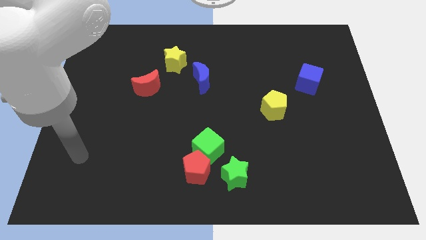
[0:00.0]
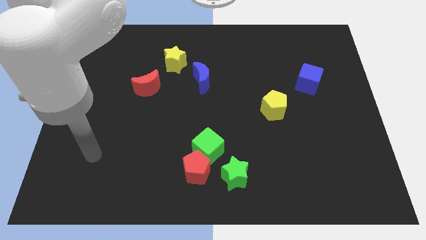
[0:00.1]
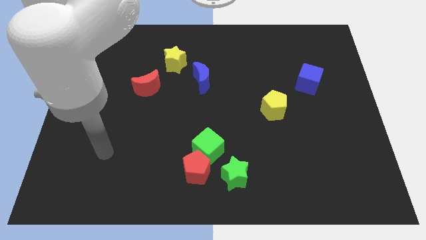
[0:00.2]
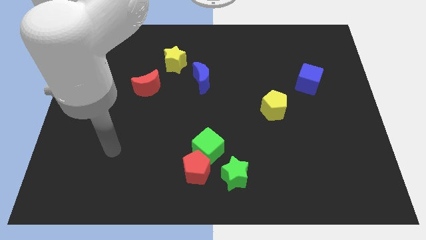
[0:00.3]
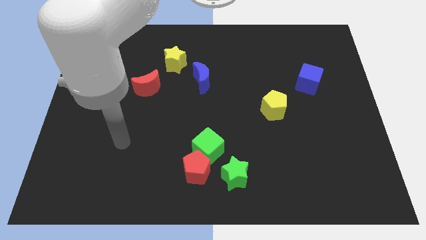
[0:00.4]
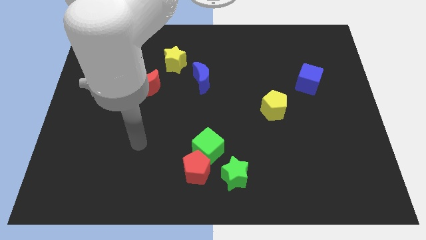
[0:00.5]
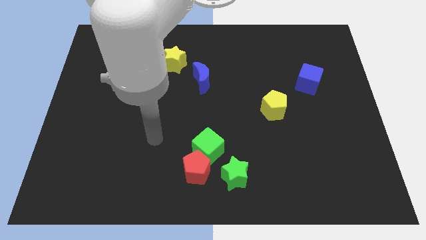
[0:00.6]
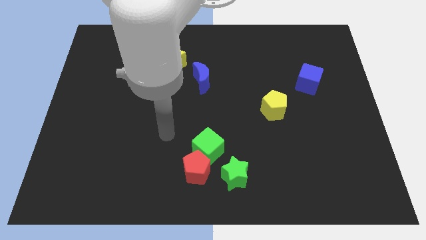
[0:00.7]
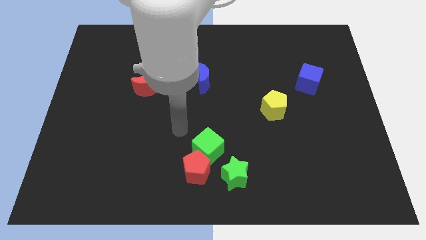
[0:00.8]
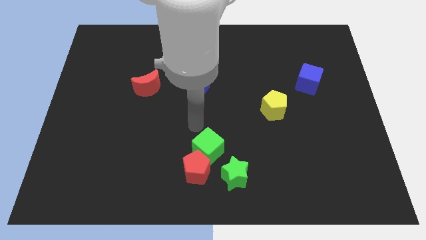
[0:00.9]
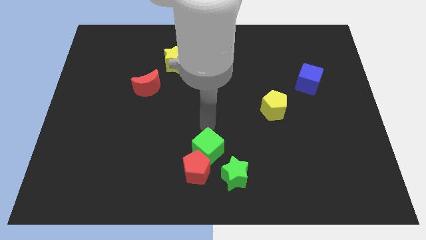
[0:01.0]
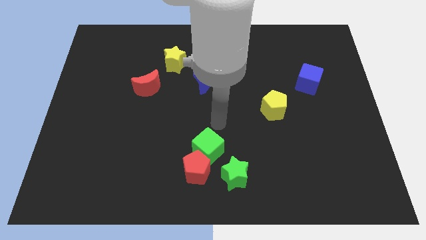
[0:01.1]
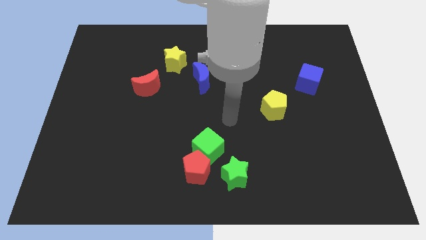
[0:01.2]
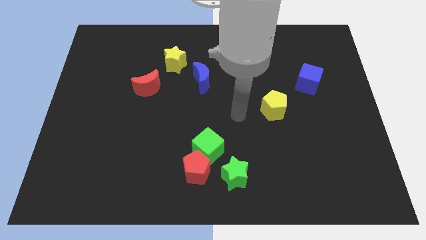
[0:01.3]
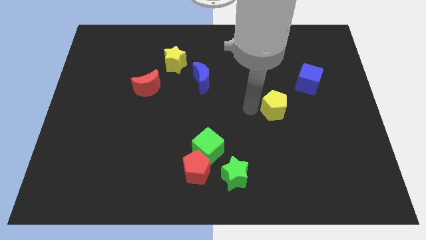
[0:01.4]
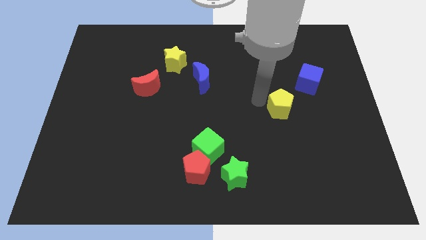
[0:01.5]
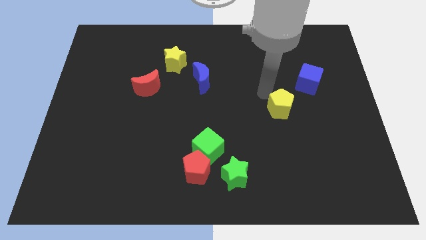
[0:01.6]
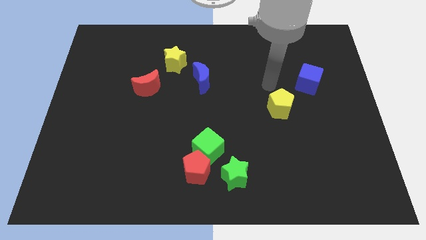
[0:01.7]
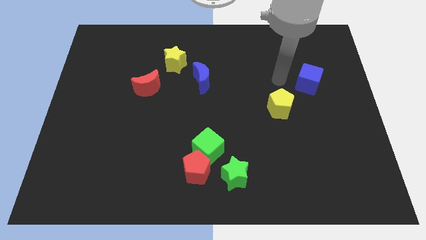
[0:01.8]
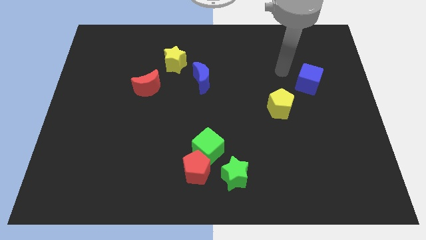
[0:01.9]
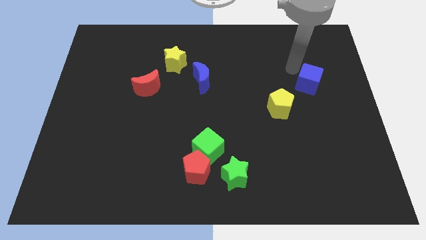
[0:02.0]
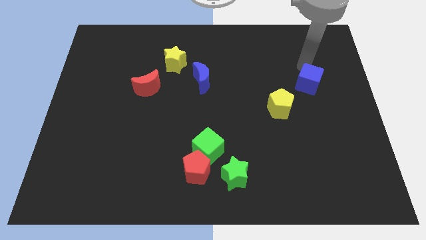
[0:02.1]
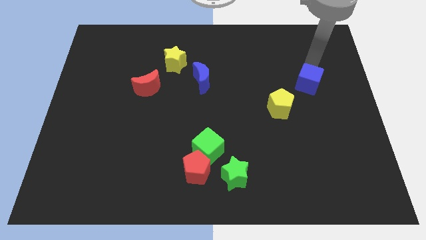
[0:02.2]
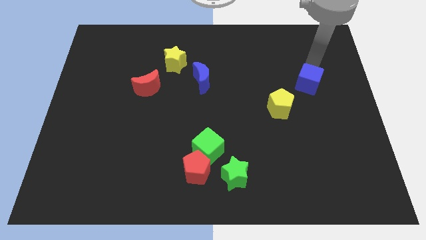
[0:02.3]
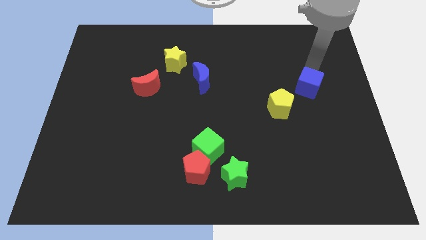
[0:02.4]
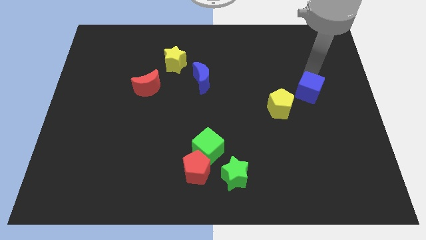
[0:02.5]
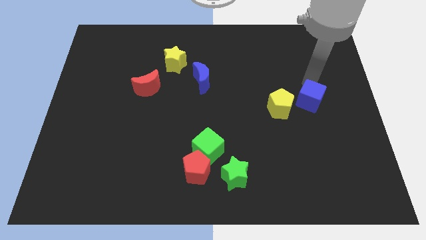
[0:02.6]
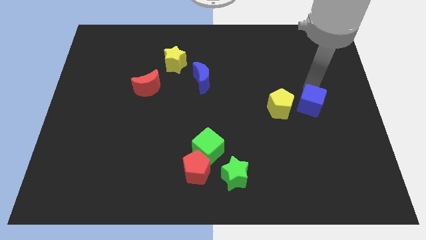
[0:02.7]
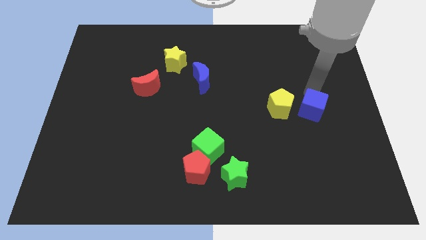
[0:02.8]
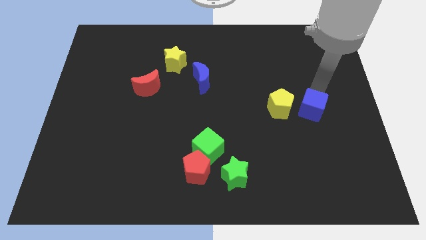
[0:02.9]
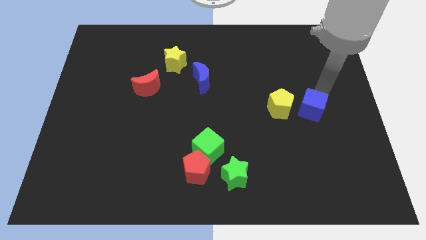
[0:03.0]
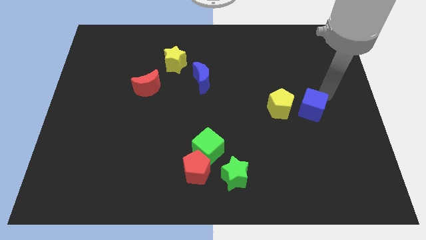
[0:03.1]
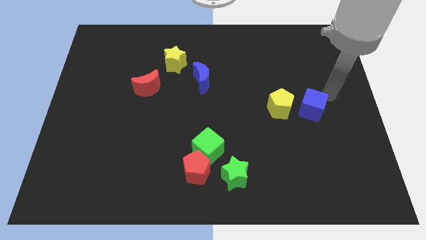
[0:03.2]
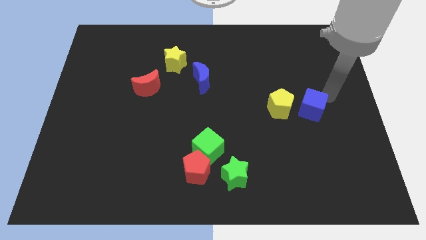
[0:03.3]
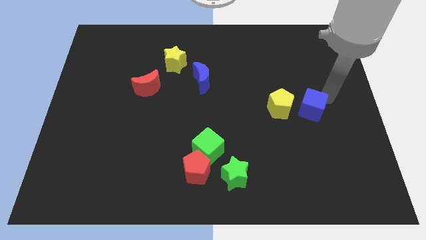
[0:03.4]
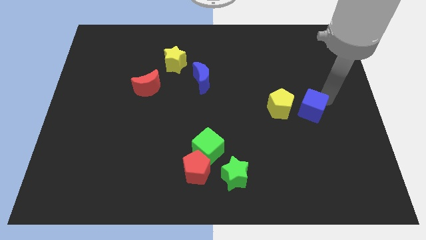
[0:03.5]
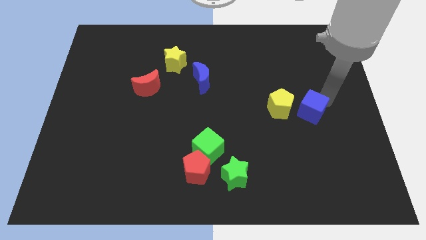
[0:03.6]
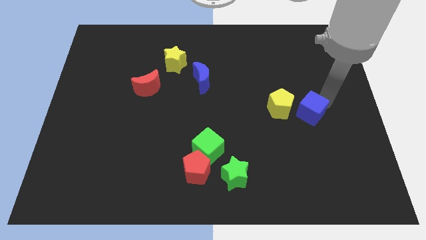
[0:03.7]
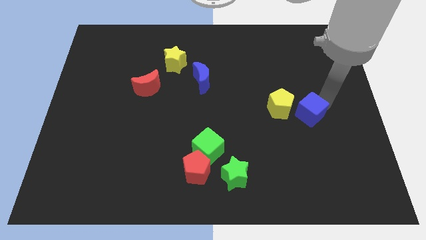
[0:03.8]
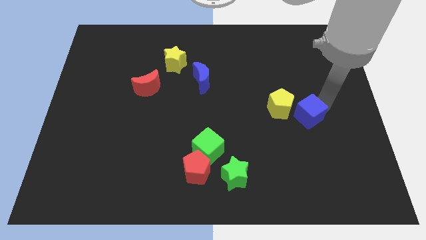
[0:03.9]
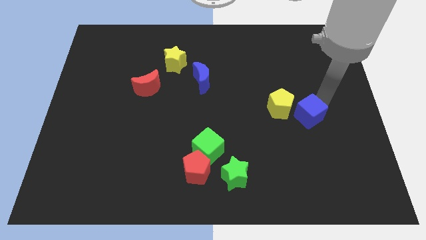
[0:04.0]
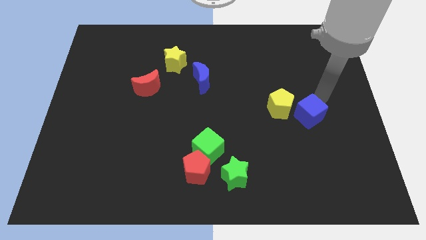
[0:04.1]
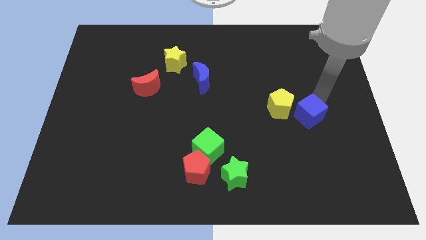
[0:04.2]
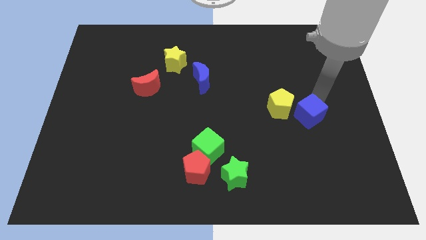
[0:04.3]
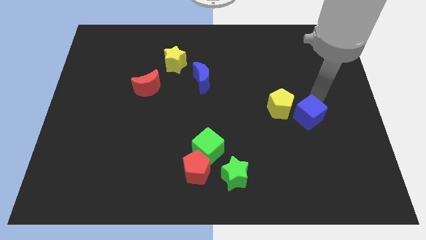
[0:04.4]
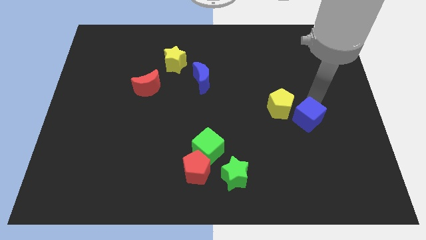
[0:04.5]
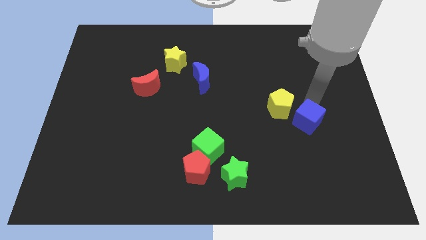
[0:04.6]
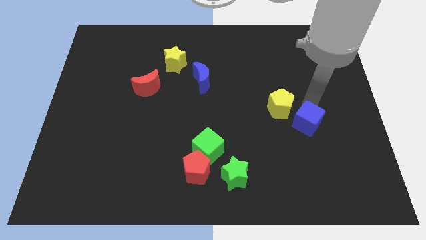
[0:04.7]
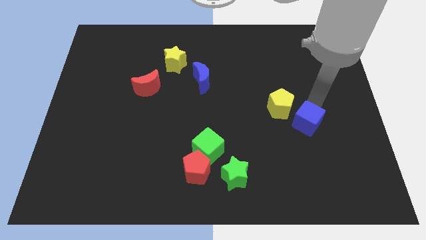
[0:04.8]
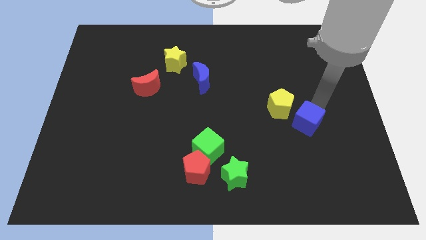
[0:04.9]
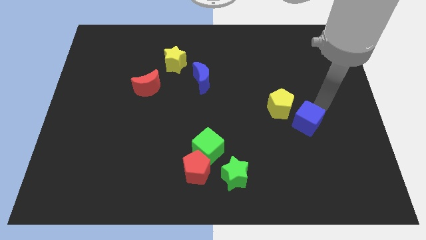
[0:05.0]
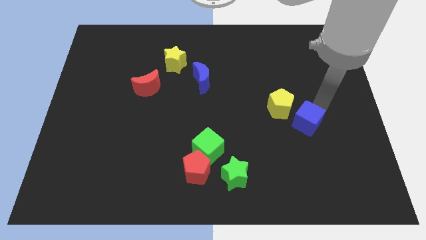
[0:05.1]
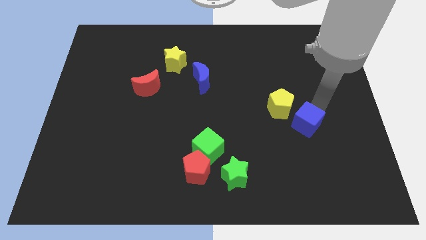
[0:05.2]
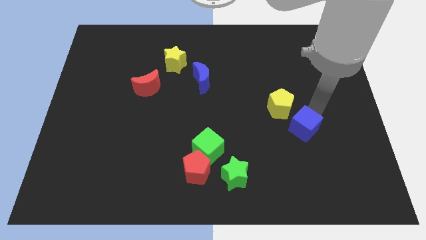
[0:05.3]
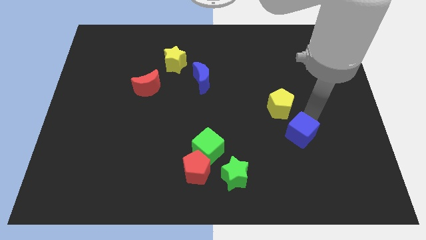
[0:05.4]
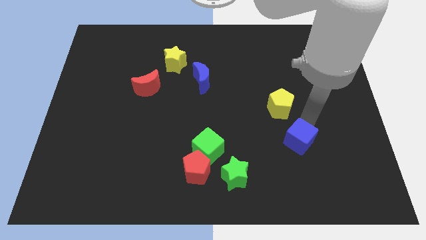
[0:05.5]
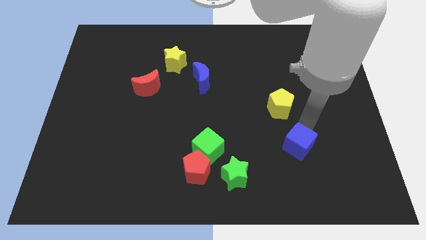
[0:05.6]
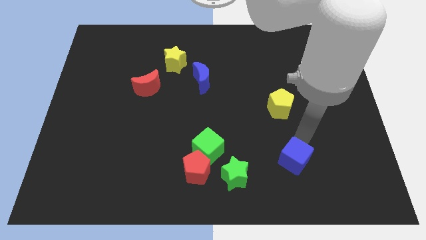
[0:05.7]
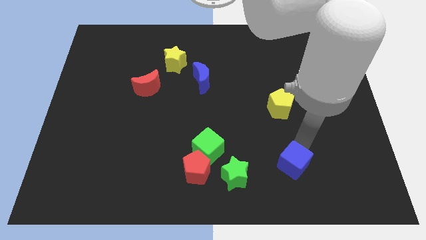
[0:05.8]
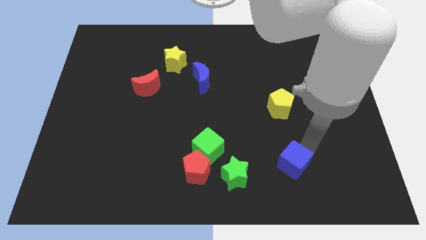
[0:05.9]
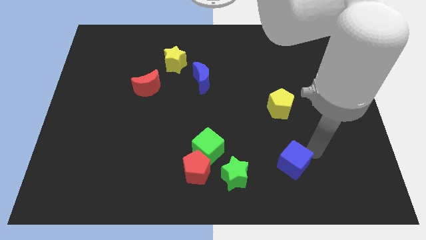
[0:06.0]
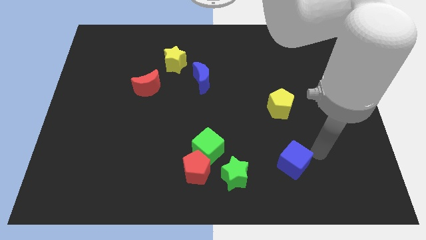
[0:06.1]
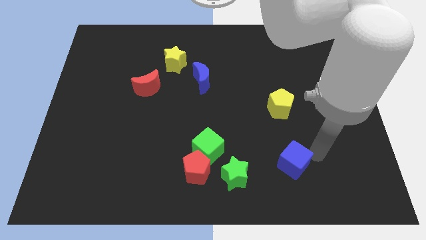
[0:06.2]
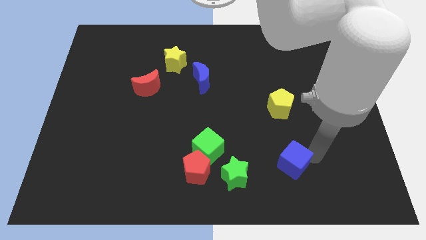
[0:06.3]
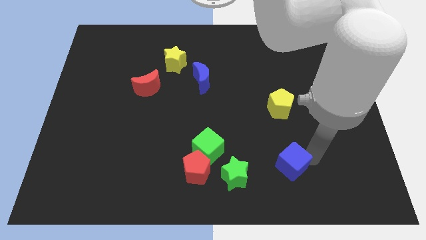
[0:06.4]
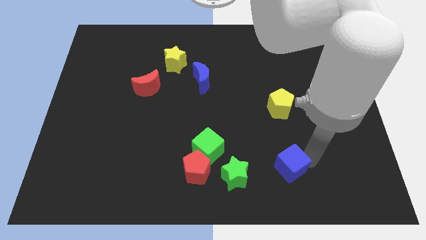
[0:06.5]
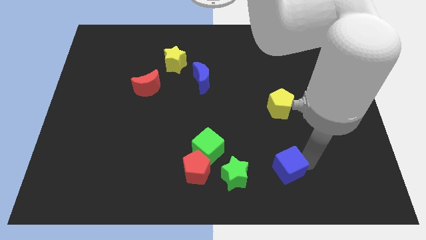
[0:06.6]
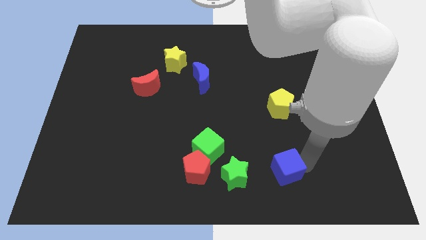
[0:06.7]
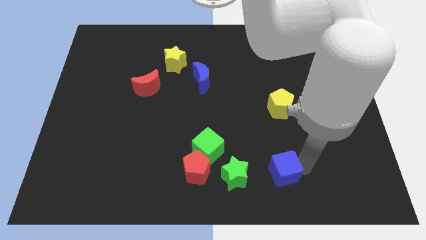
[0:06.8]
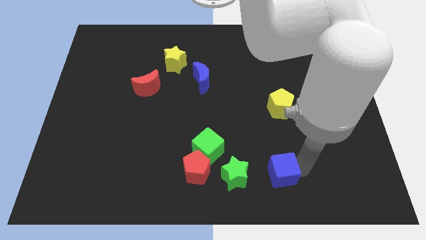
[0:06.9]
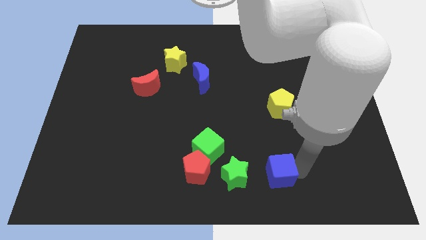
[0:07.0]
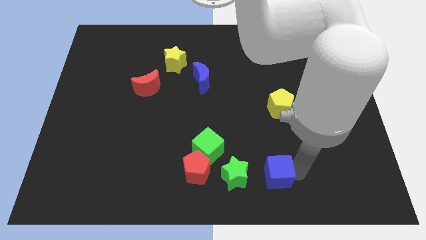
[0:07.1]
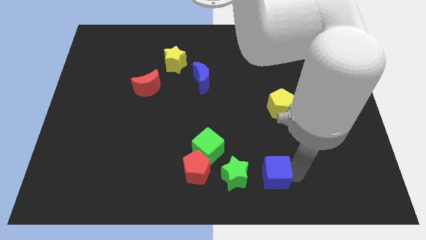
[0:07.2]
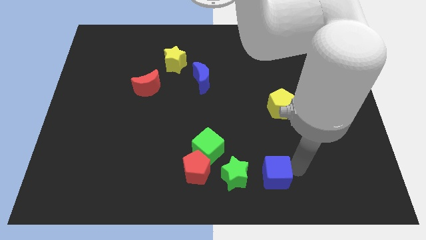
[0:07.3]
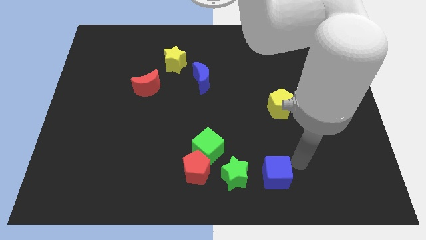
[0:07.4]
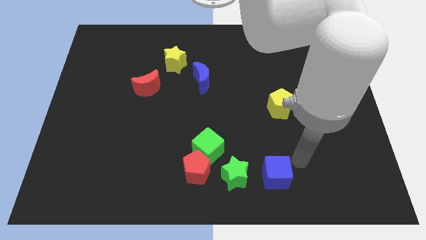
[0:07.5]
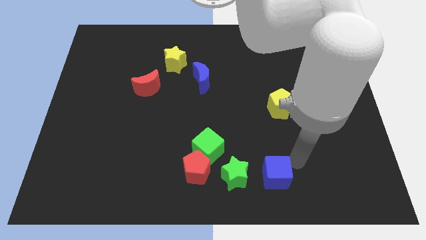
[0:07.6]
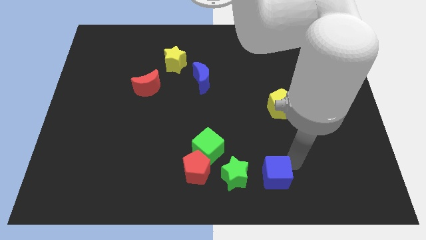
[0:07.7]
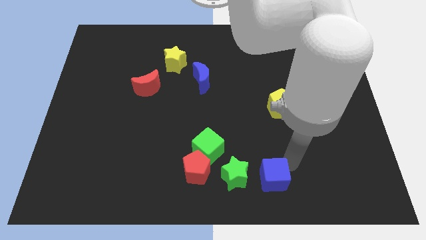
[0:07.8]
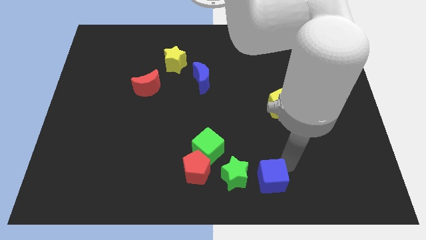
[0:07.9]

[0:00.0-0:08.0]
put the blue cube to the bottom
